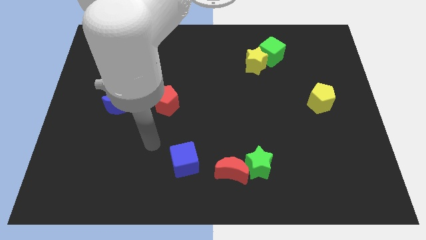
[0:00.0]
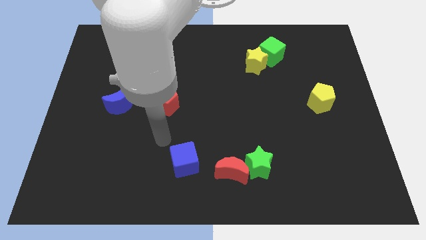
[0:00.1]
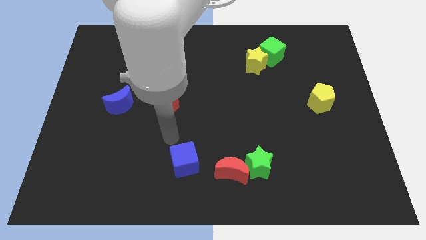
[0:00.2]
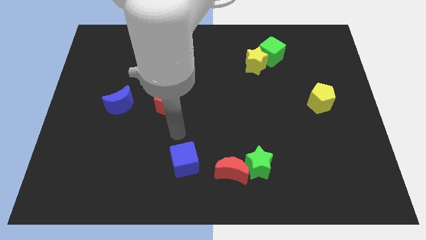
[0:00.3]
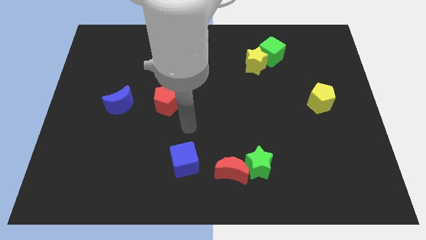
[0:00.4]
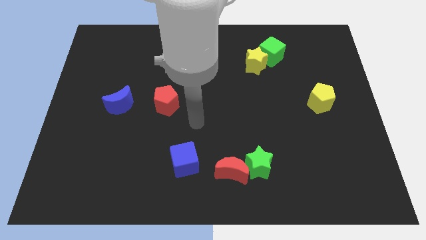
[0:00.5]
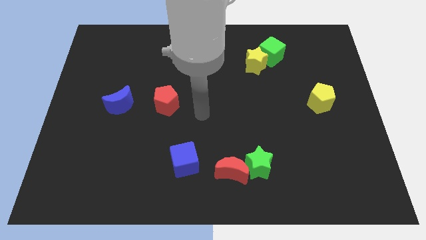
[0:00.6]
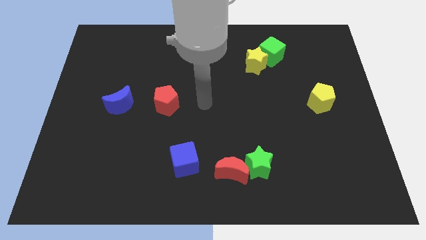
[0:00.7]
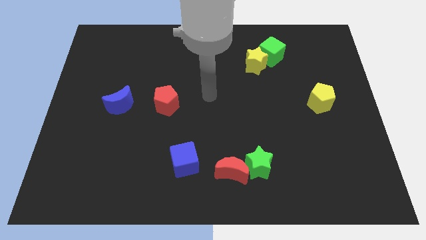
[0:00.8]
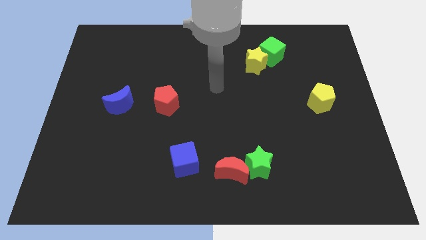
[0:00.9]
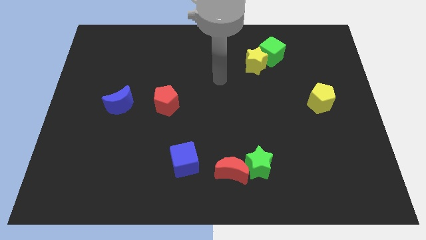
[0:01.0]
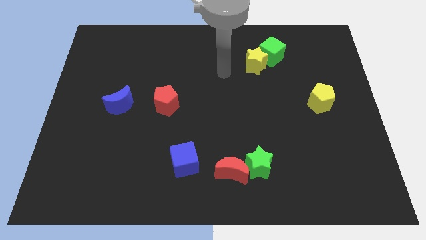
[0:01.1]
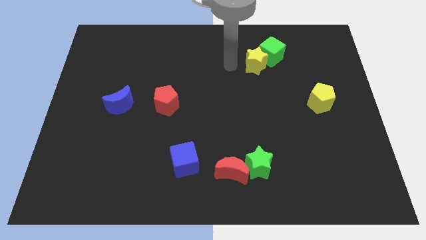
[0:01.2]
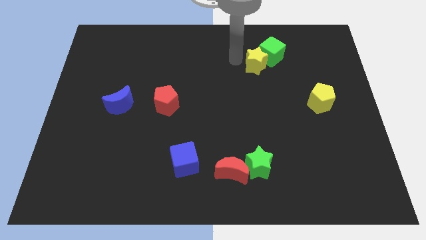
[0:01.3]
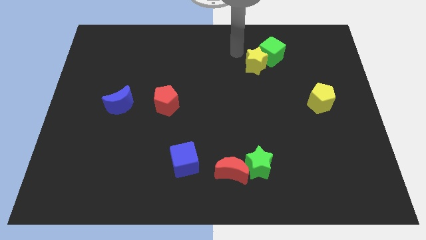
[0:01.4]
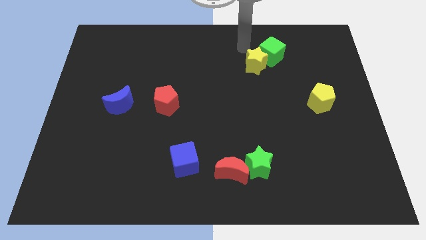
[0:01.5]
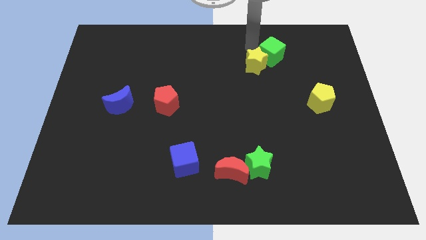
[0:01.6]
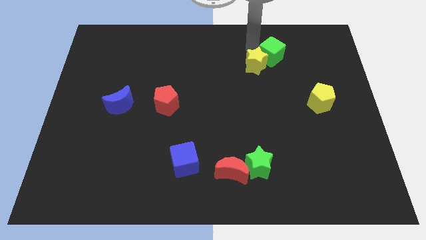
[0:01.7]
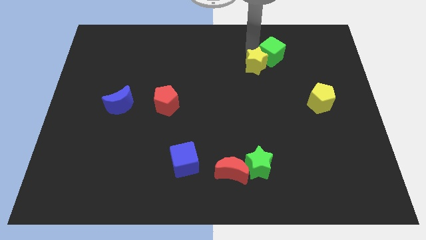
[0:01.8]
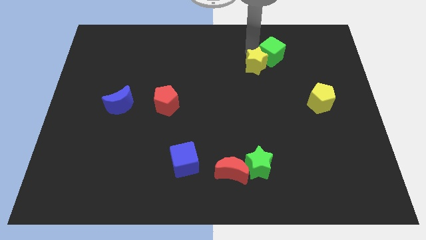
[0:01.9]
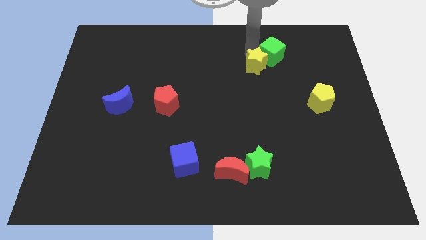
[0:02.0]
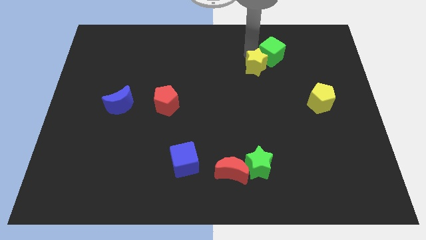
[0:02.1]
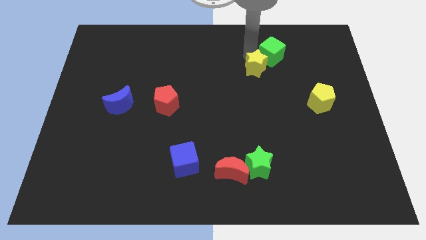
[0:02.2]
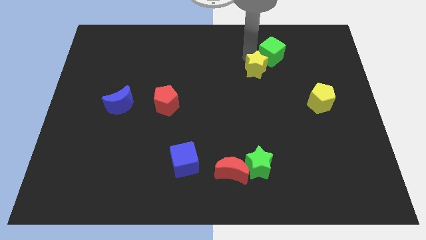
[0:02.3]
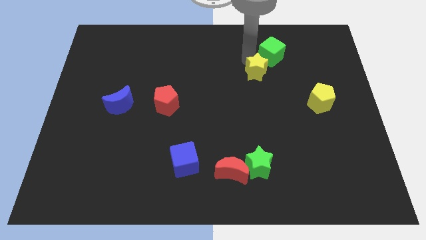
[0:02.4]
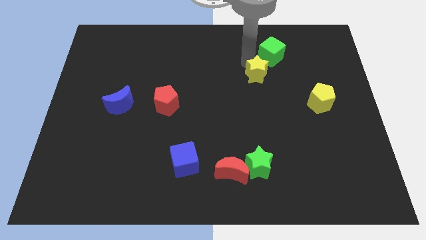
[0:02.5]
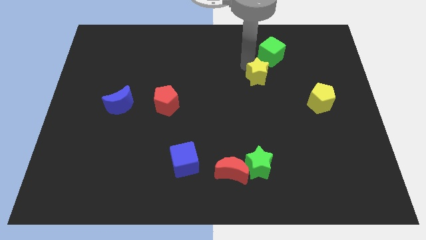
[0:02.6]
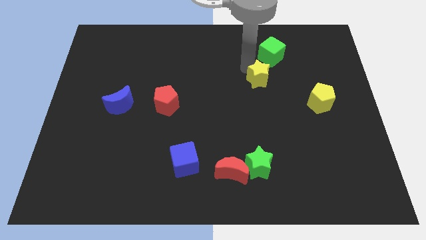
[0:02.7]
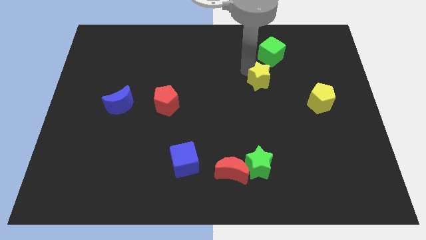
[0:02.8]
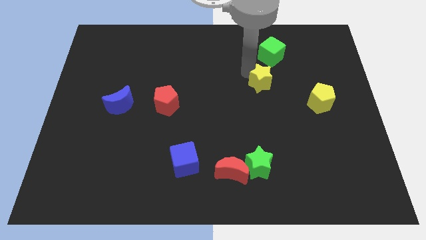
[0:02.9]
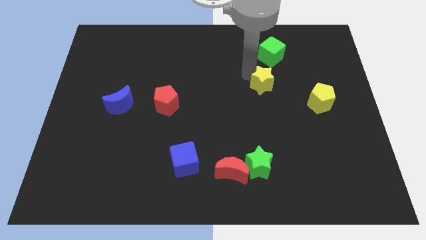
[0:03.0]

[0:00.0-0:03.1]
move the yellow star down a bit

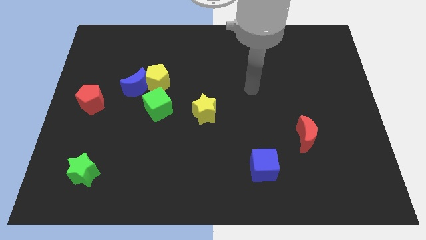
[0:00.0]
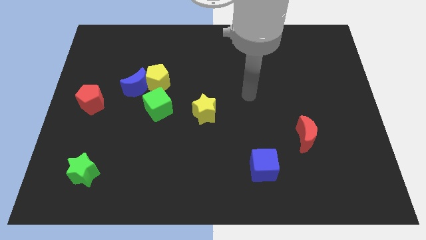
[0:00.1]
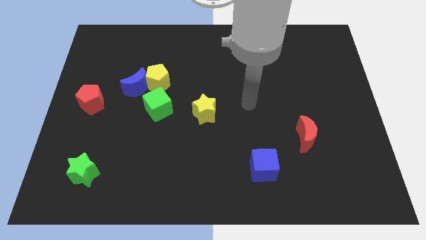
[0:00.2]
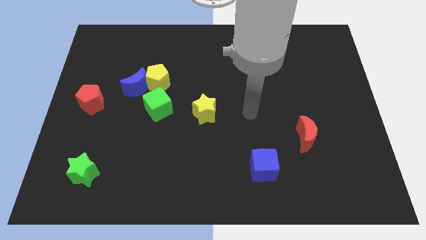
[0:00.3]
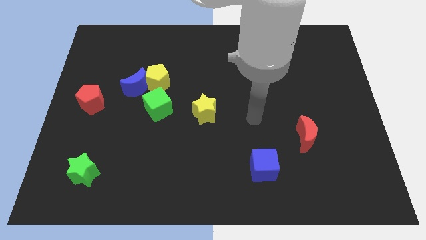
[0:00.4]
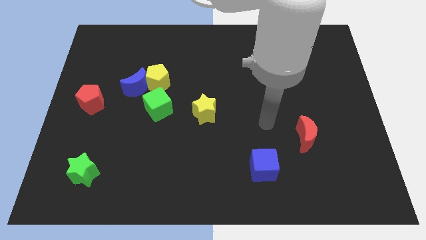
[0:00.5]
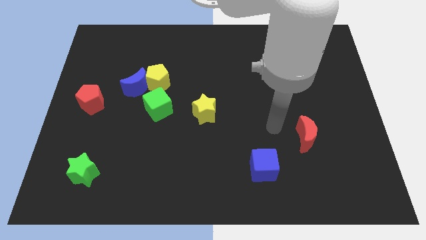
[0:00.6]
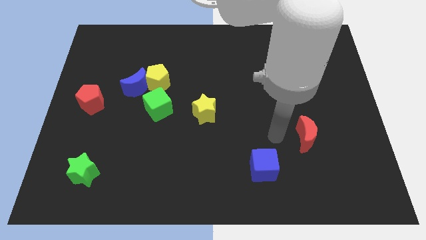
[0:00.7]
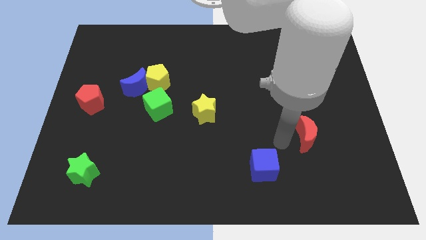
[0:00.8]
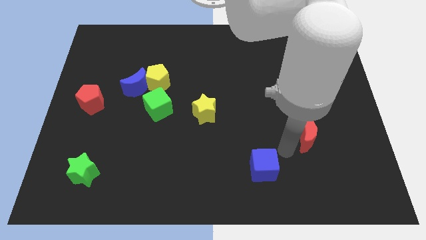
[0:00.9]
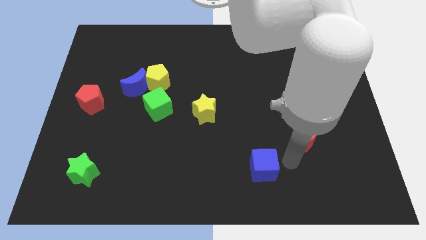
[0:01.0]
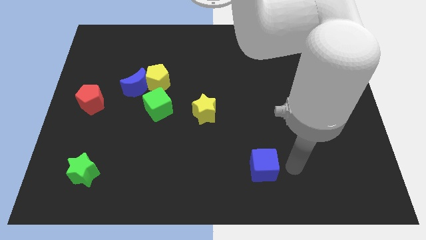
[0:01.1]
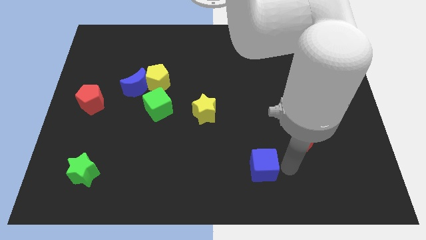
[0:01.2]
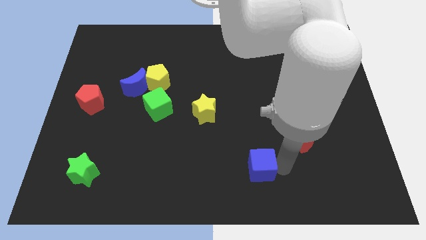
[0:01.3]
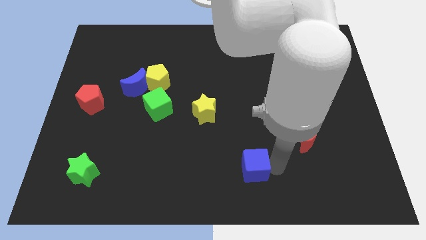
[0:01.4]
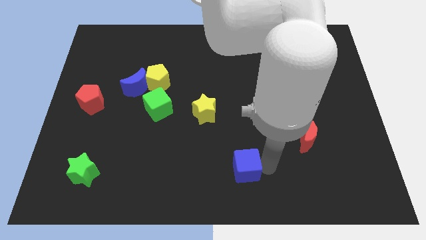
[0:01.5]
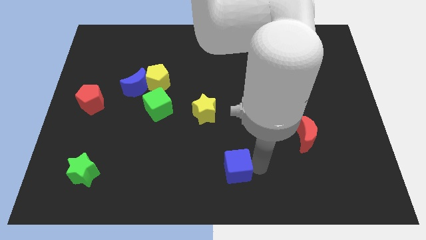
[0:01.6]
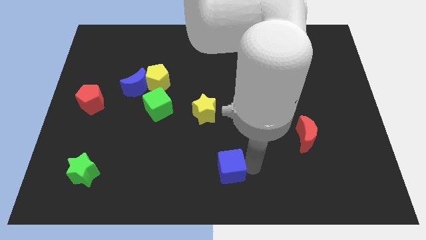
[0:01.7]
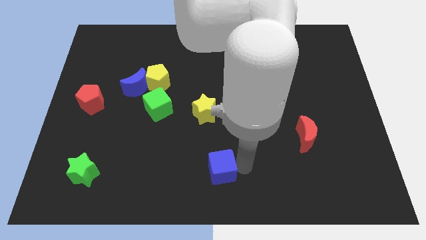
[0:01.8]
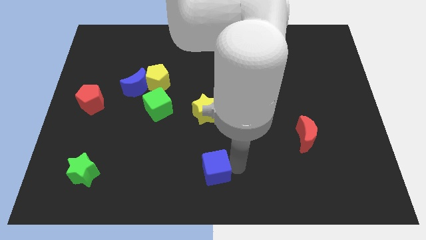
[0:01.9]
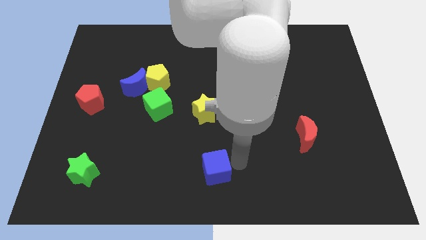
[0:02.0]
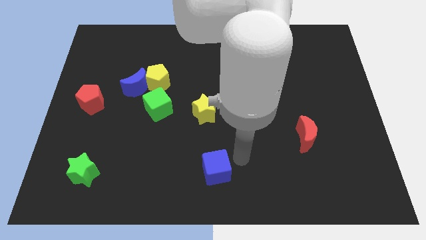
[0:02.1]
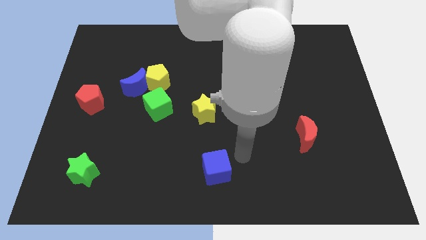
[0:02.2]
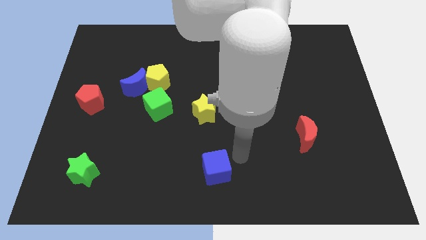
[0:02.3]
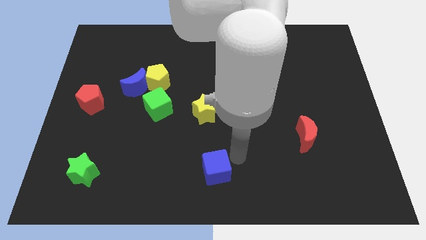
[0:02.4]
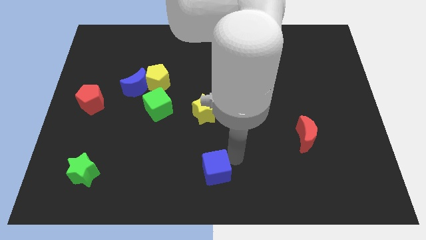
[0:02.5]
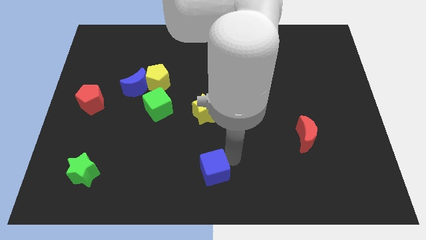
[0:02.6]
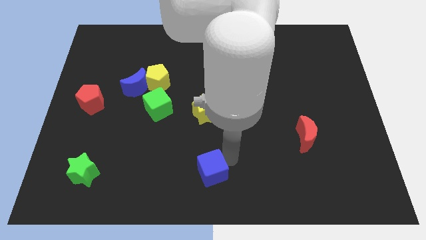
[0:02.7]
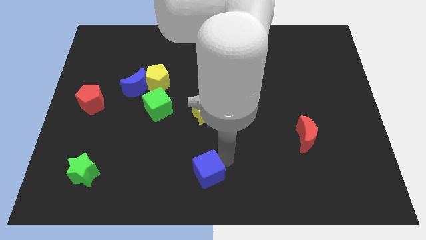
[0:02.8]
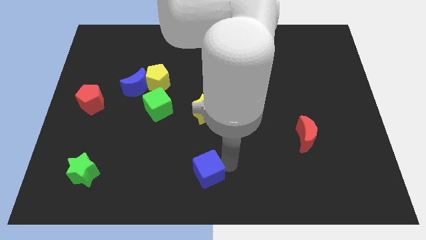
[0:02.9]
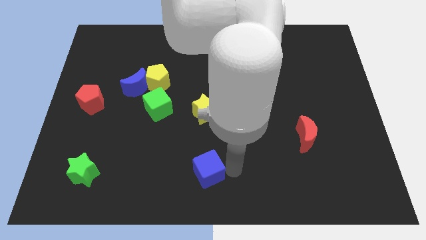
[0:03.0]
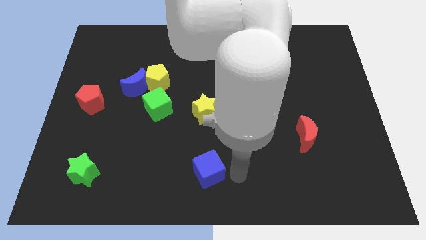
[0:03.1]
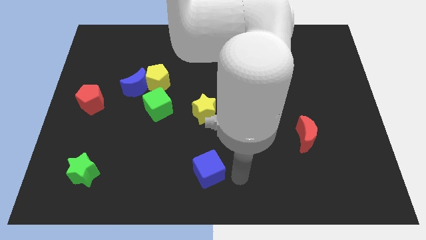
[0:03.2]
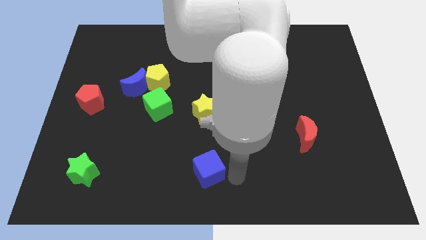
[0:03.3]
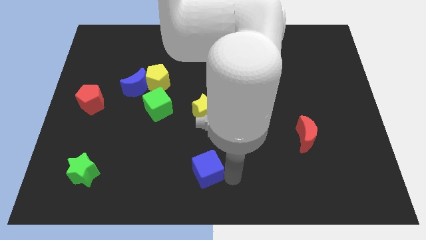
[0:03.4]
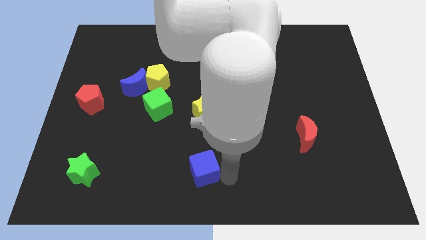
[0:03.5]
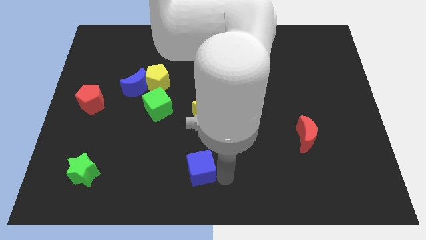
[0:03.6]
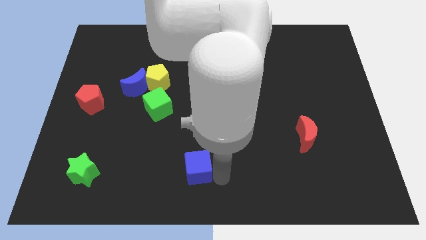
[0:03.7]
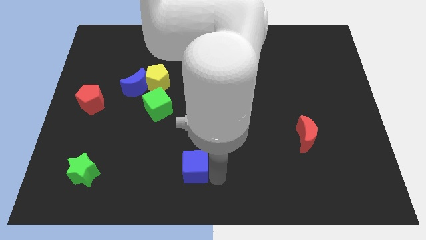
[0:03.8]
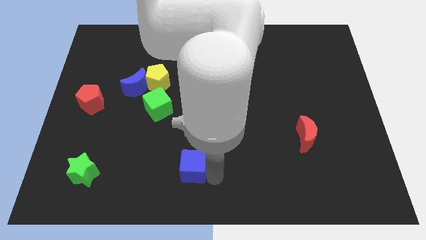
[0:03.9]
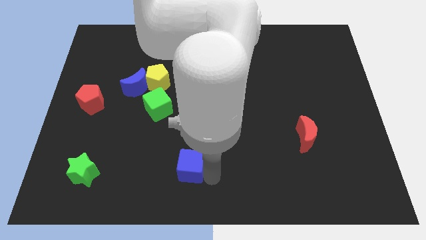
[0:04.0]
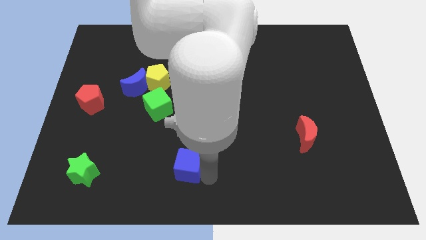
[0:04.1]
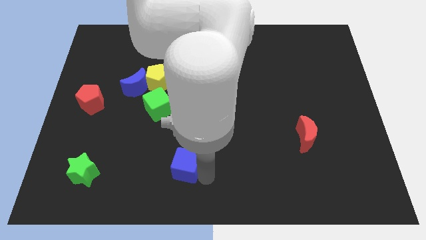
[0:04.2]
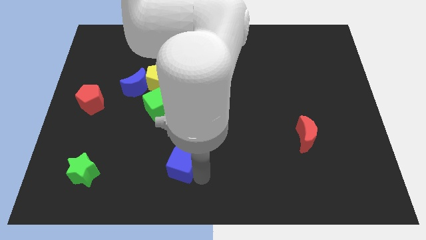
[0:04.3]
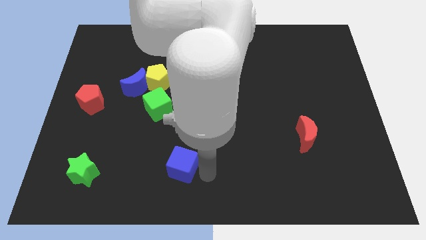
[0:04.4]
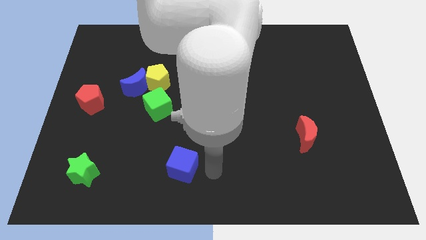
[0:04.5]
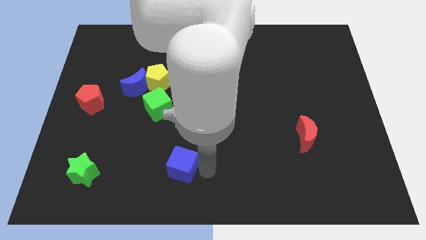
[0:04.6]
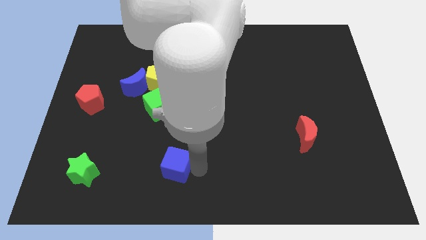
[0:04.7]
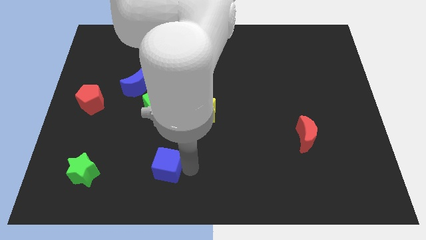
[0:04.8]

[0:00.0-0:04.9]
move the blue cube to the left
